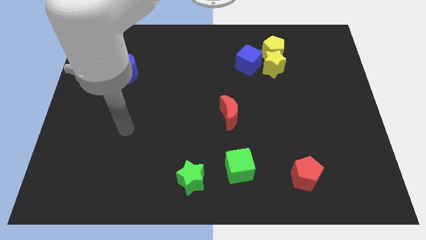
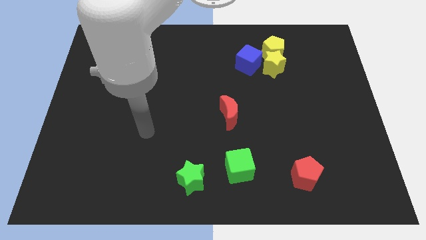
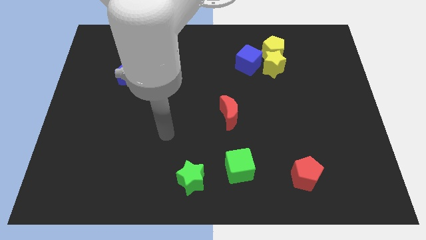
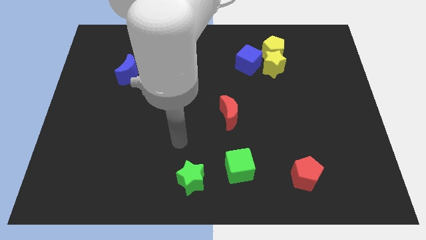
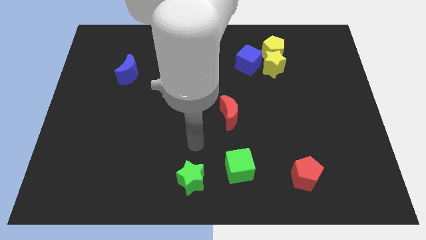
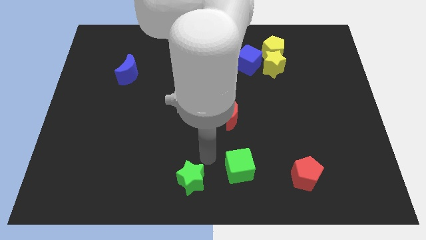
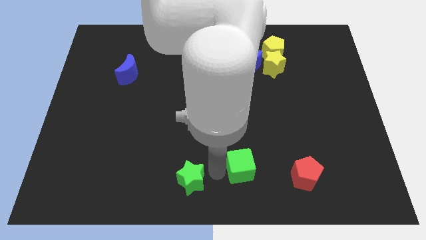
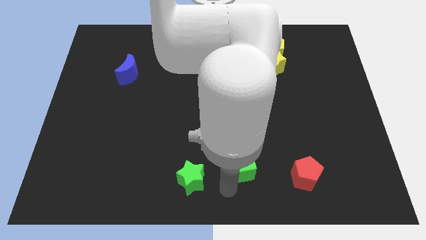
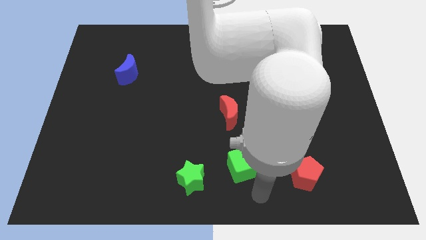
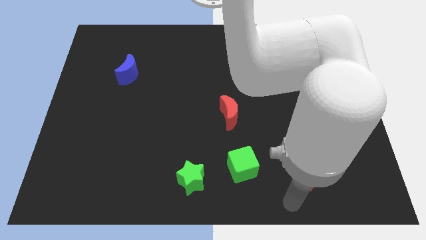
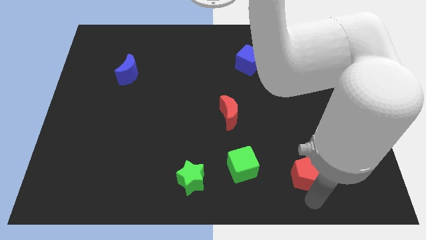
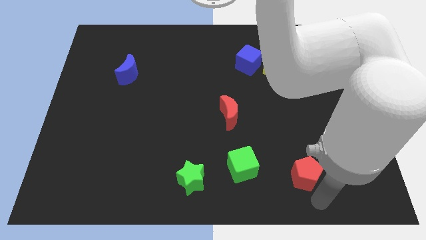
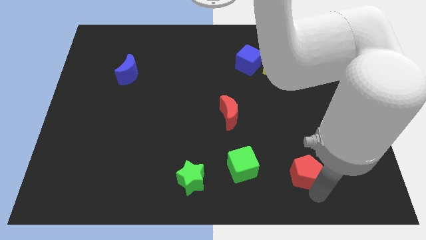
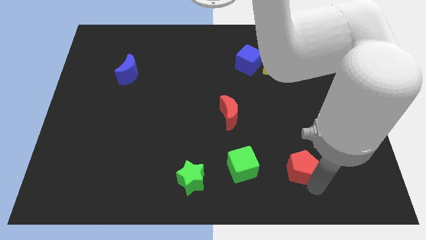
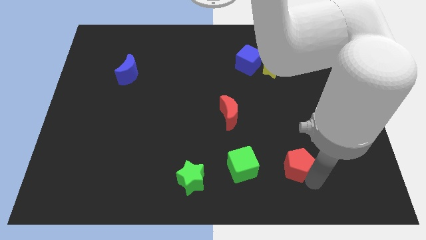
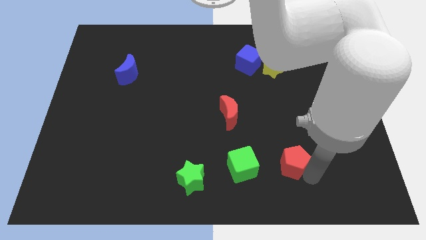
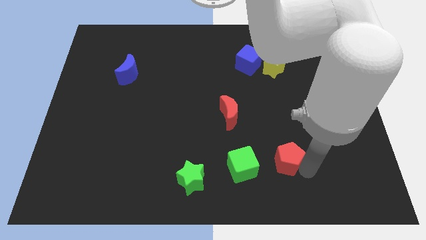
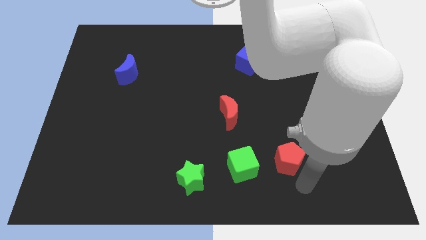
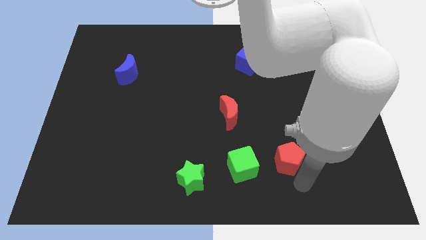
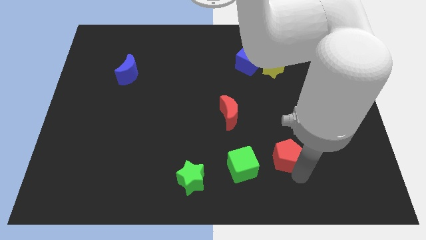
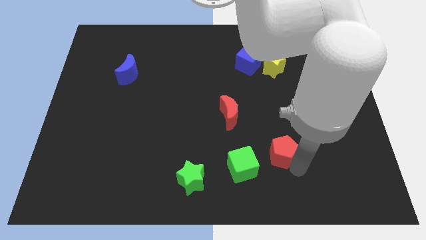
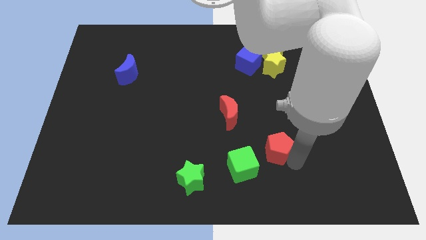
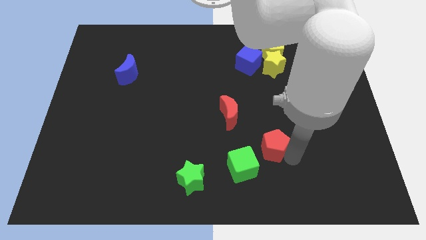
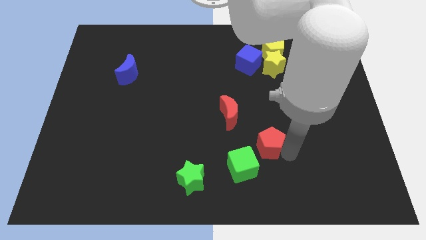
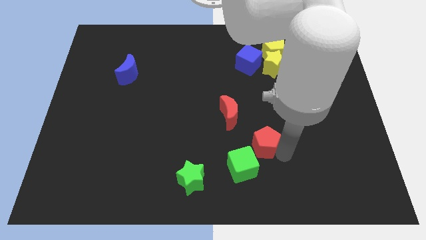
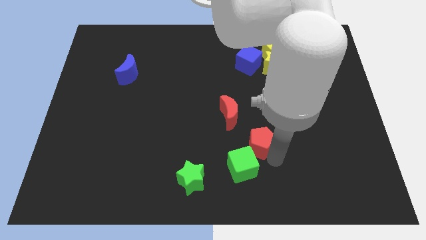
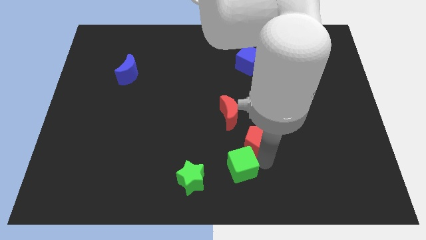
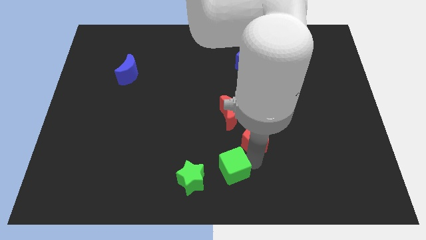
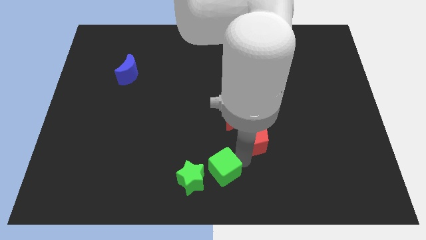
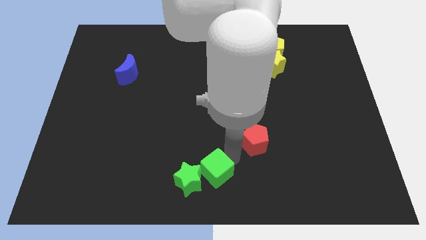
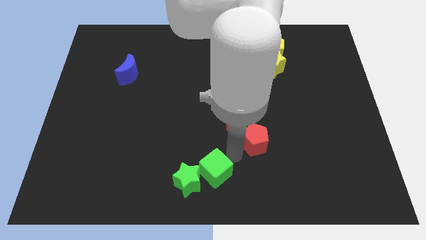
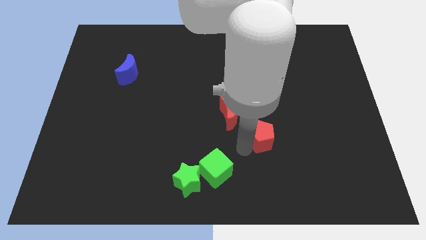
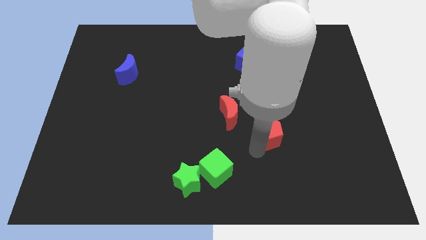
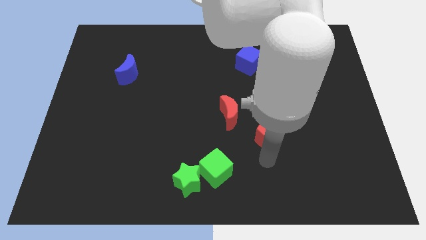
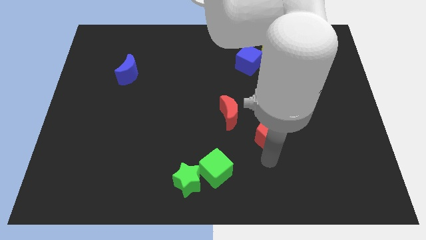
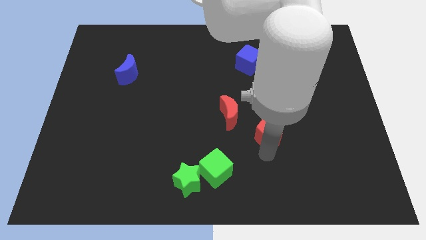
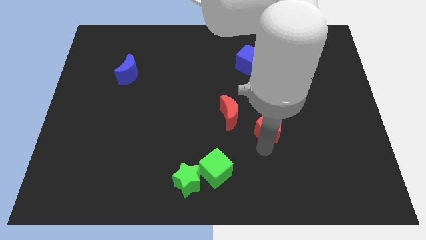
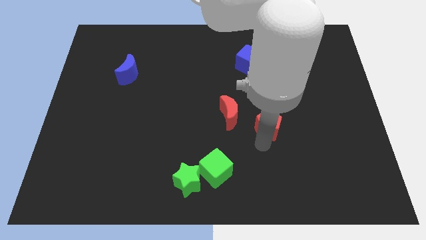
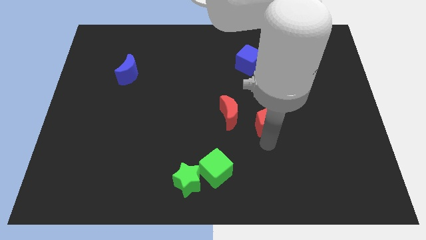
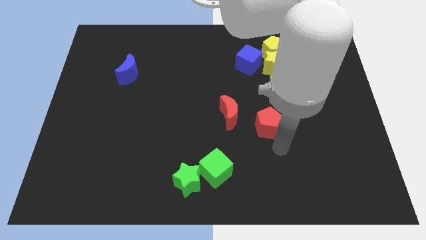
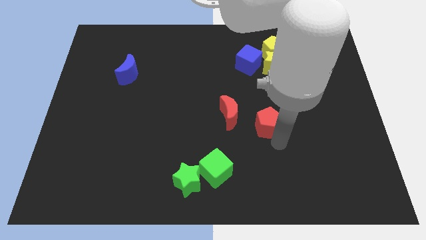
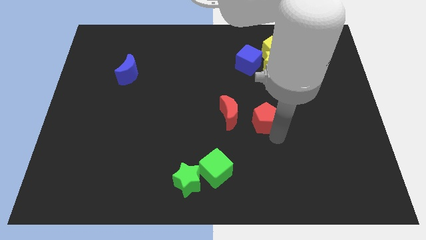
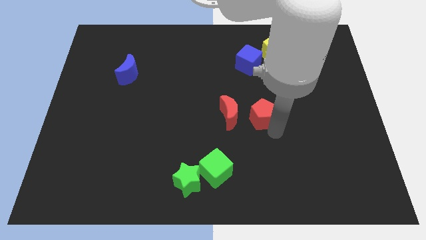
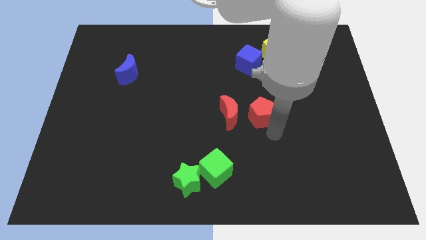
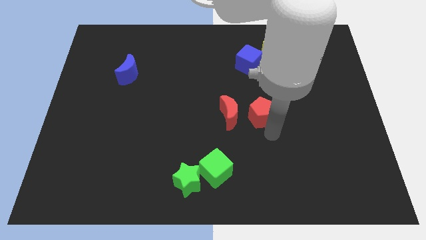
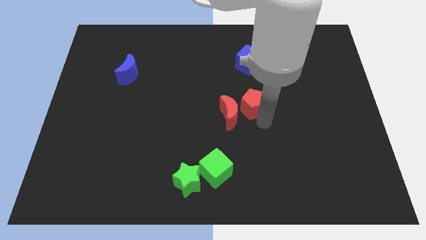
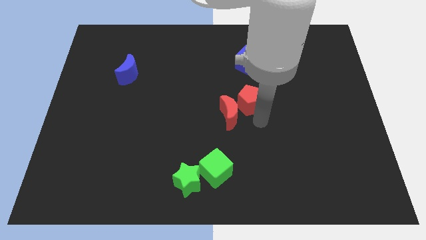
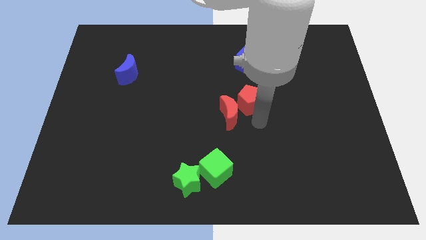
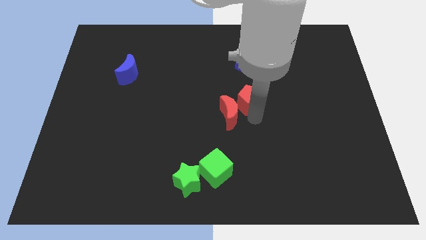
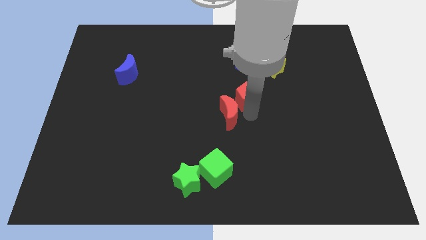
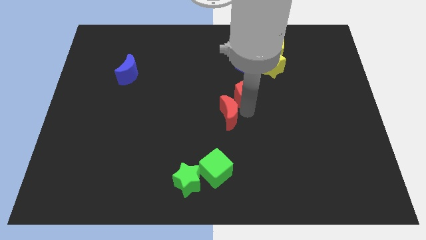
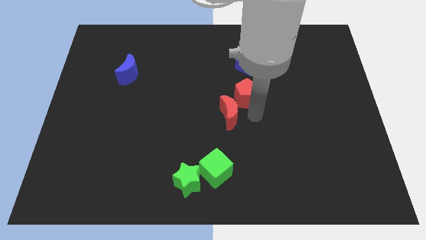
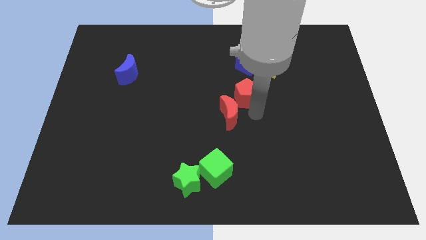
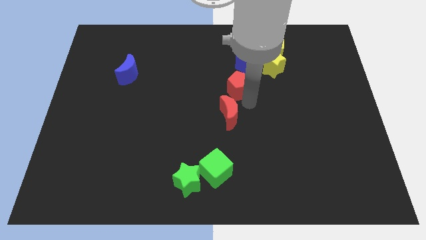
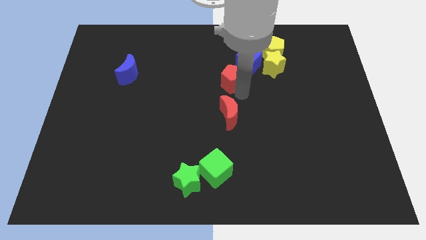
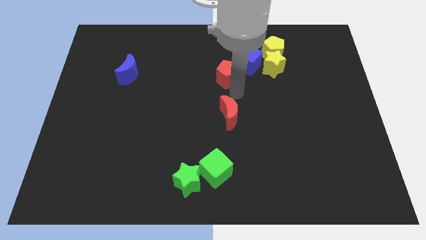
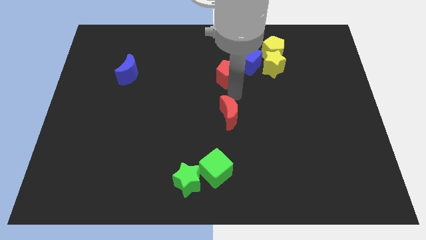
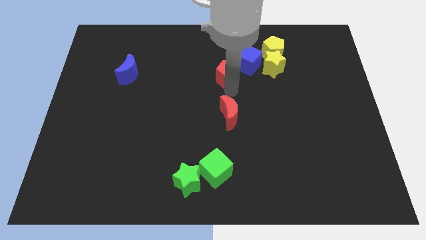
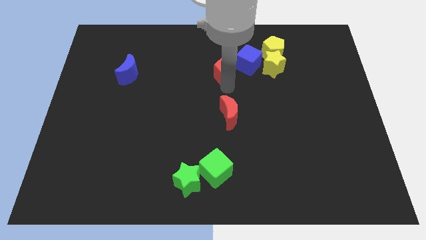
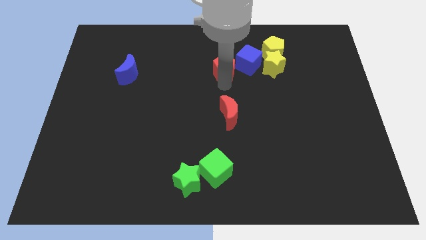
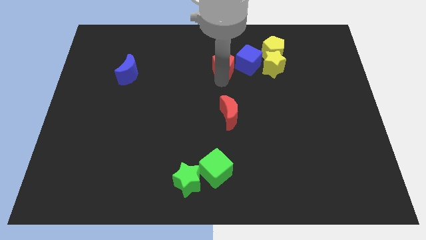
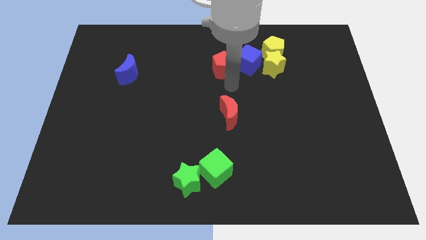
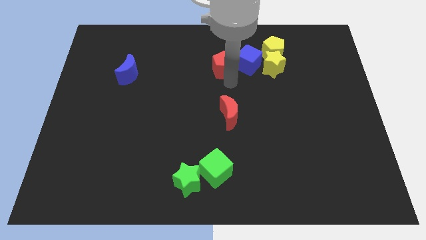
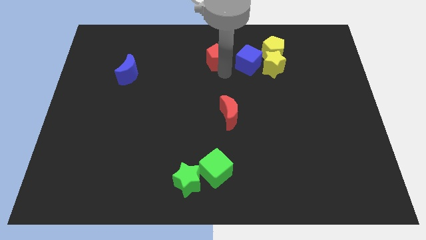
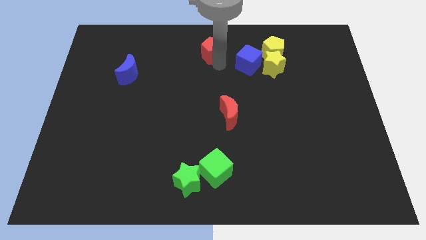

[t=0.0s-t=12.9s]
put the red pentagon to the towards your base
